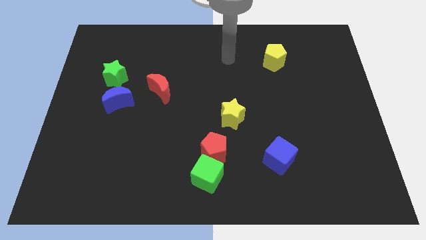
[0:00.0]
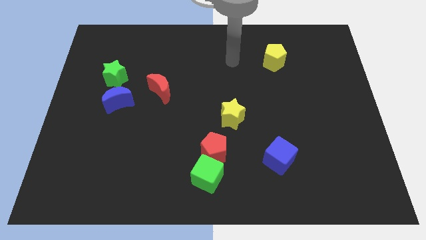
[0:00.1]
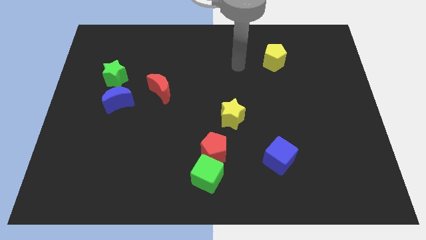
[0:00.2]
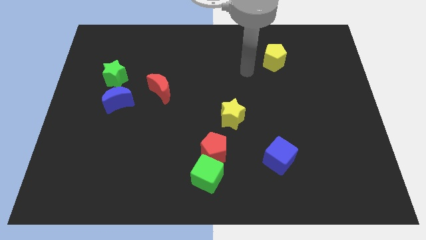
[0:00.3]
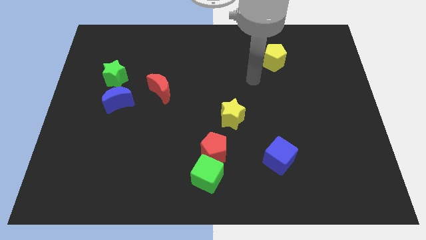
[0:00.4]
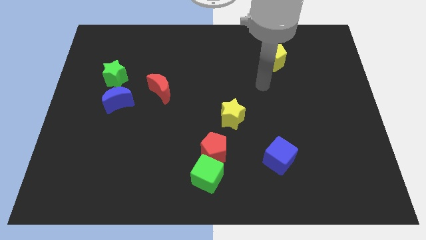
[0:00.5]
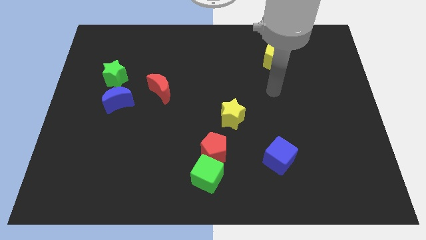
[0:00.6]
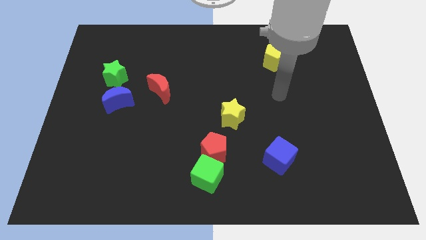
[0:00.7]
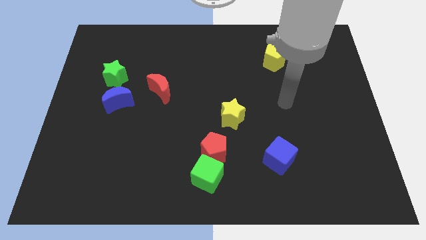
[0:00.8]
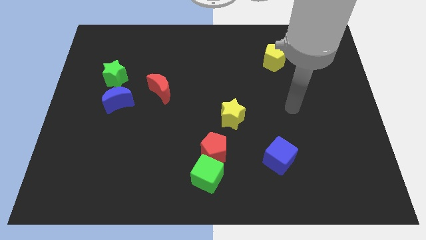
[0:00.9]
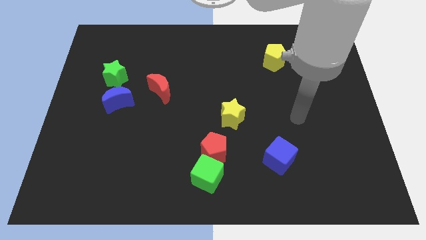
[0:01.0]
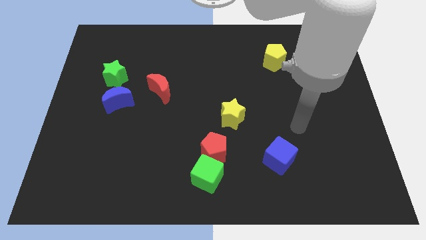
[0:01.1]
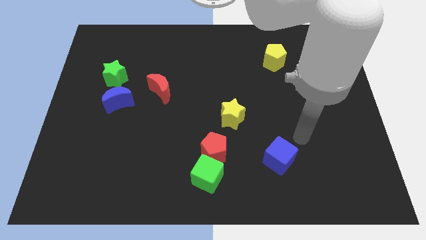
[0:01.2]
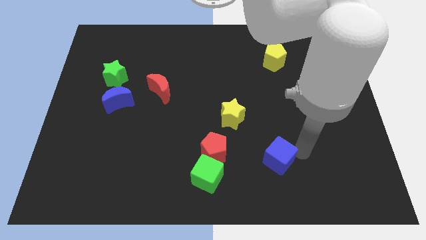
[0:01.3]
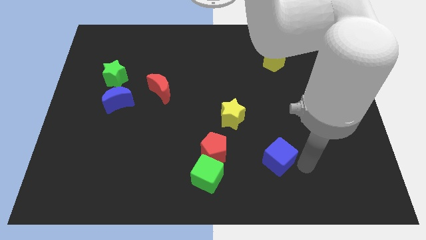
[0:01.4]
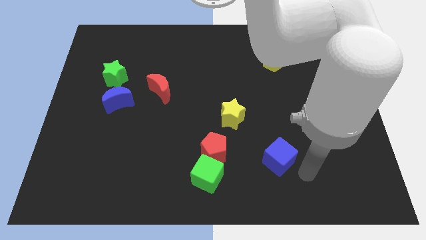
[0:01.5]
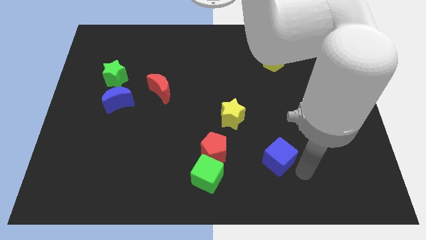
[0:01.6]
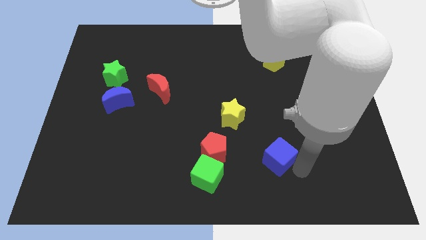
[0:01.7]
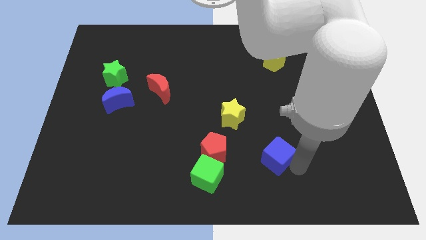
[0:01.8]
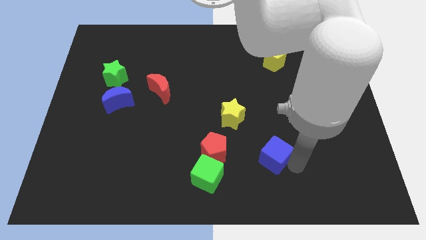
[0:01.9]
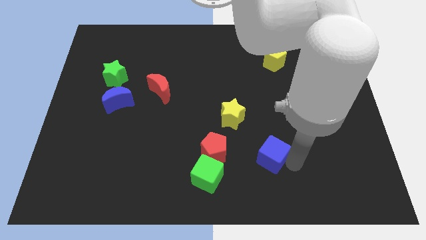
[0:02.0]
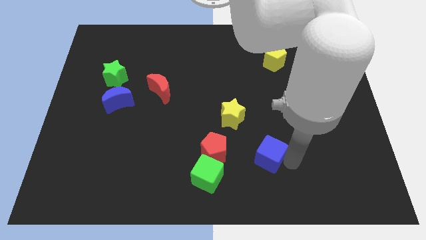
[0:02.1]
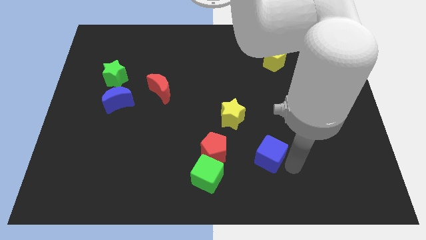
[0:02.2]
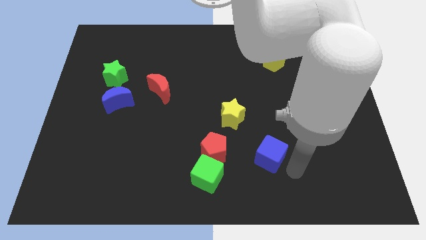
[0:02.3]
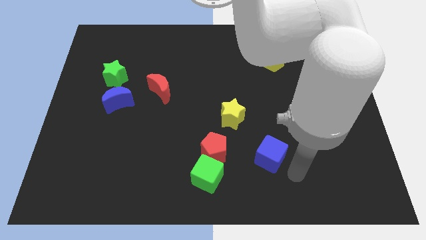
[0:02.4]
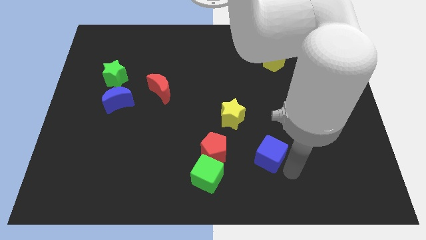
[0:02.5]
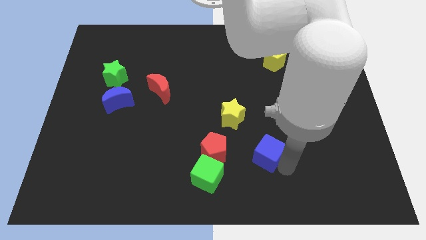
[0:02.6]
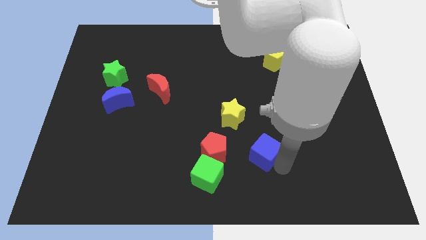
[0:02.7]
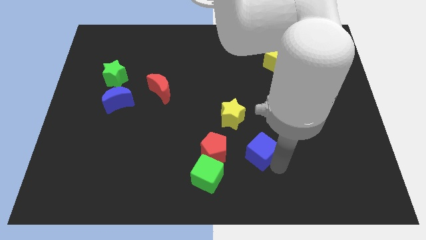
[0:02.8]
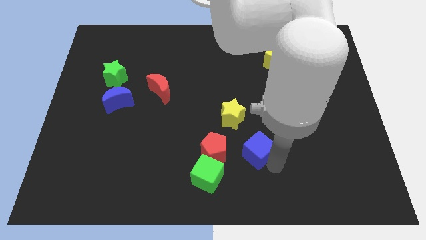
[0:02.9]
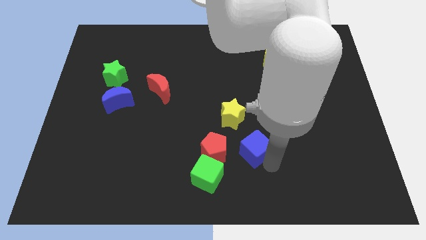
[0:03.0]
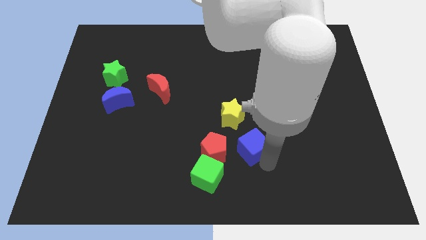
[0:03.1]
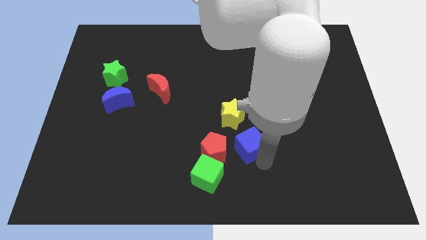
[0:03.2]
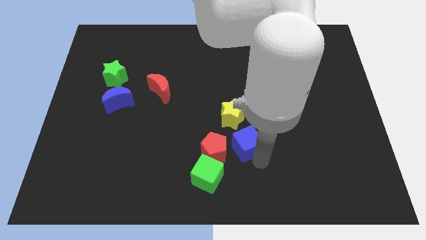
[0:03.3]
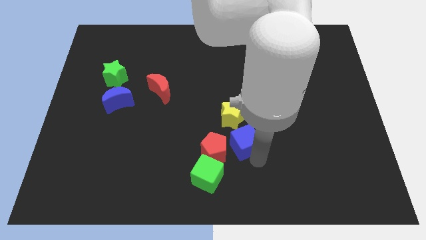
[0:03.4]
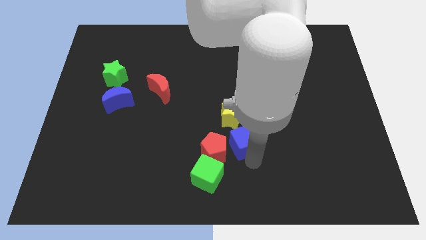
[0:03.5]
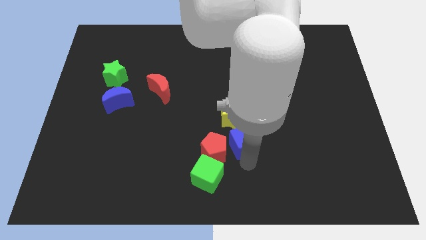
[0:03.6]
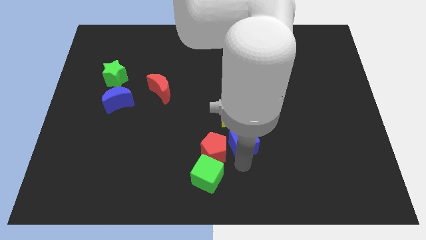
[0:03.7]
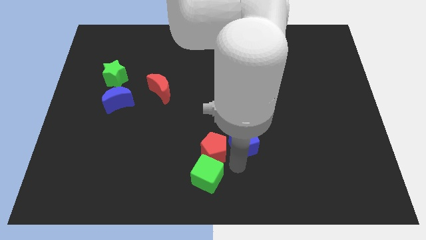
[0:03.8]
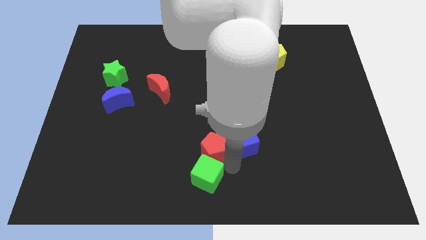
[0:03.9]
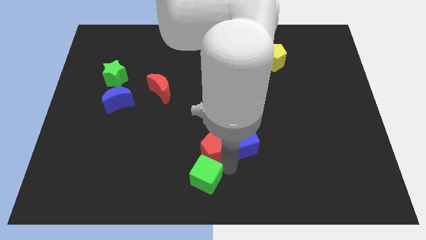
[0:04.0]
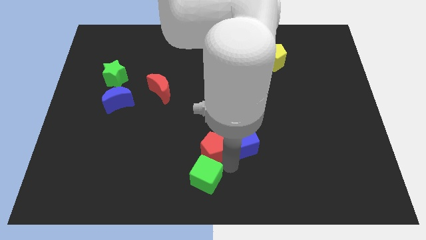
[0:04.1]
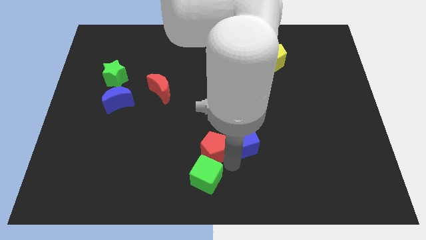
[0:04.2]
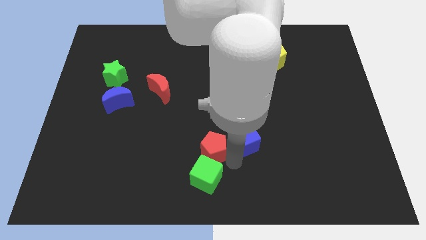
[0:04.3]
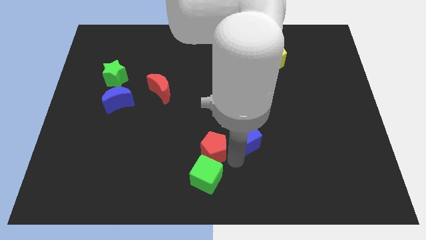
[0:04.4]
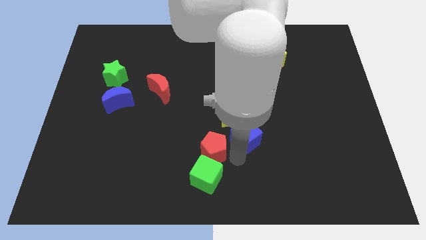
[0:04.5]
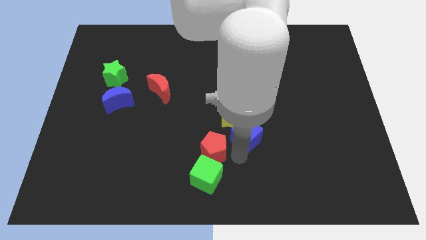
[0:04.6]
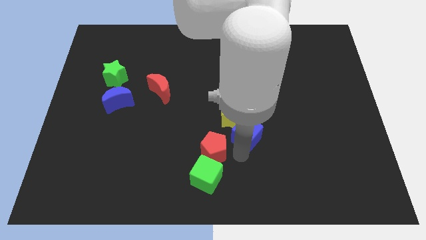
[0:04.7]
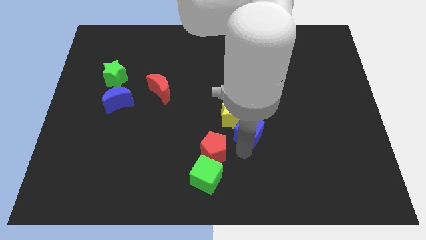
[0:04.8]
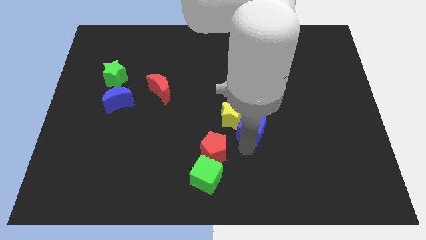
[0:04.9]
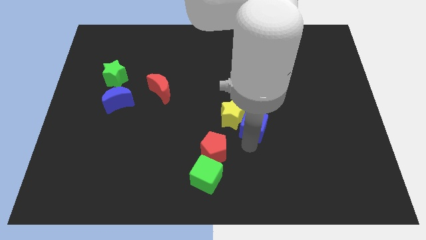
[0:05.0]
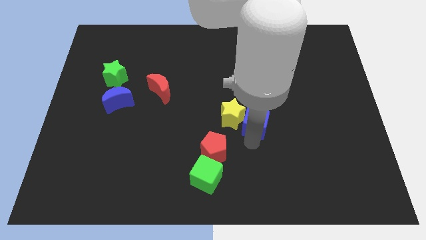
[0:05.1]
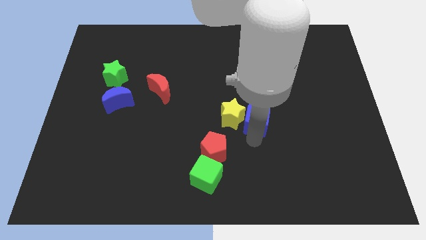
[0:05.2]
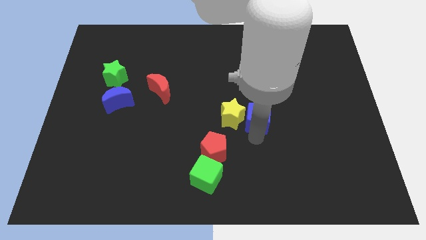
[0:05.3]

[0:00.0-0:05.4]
move the blue cube diagonally up and to the right of the yellow star

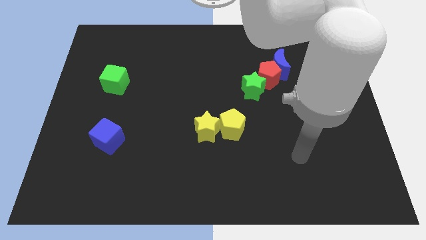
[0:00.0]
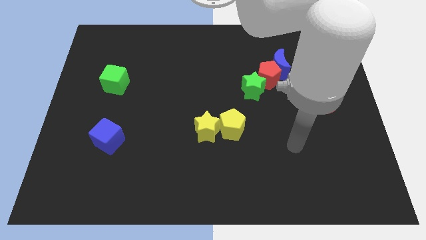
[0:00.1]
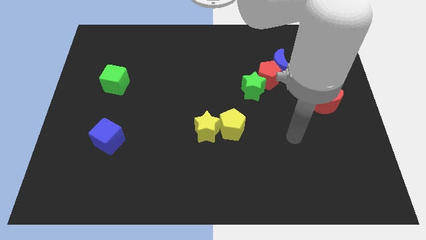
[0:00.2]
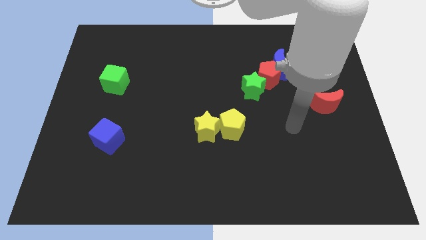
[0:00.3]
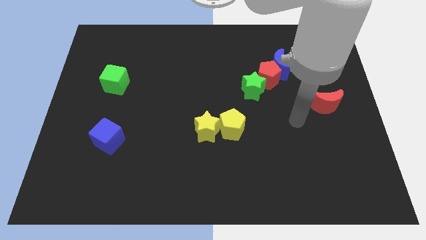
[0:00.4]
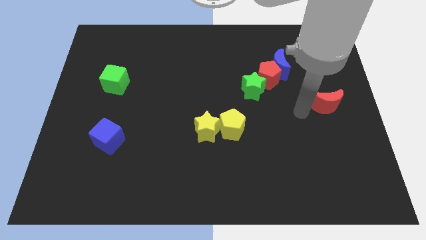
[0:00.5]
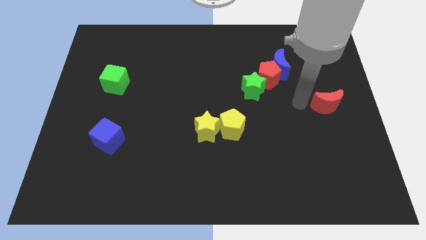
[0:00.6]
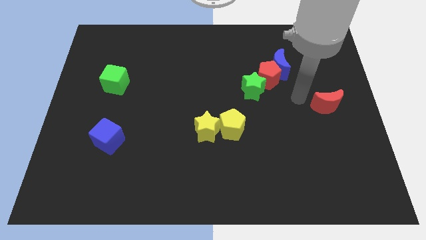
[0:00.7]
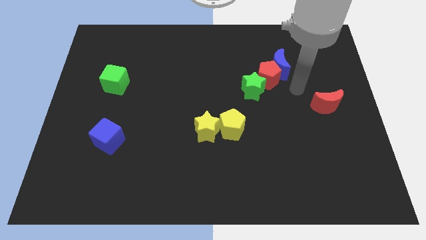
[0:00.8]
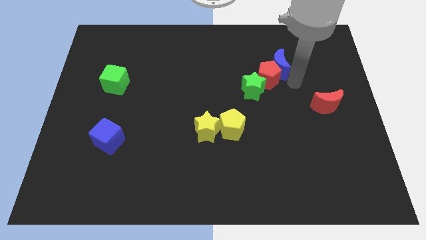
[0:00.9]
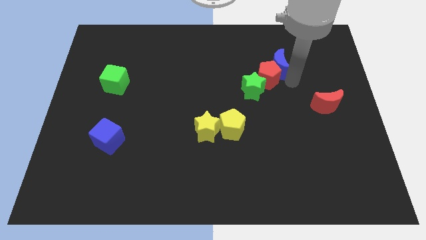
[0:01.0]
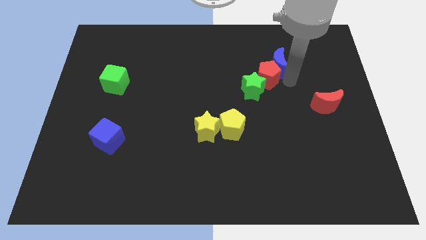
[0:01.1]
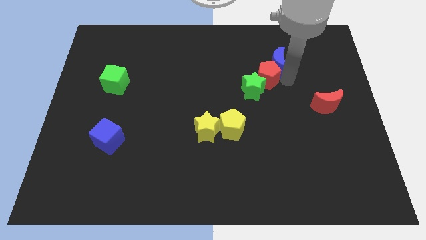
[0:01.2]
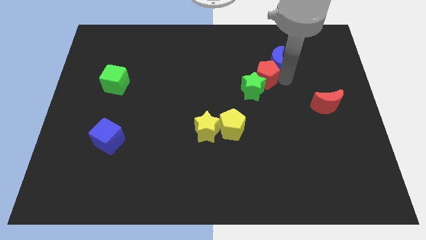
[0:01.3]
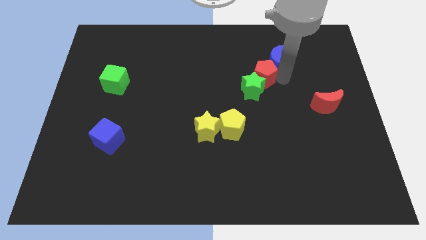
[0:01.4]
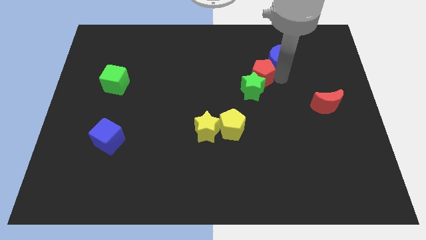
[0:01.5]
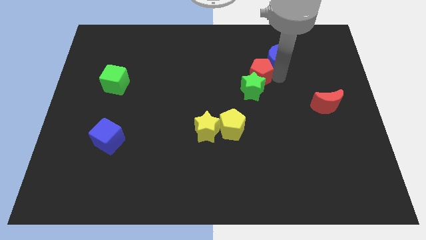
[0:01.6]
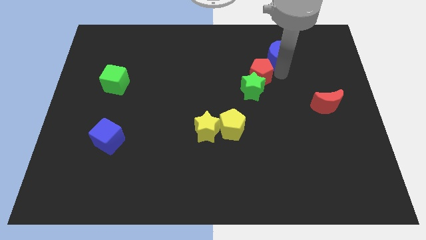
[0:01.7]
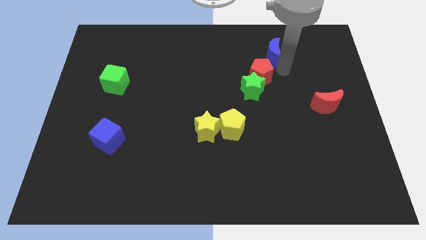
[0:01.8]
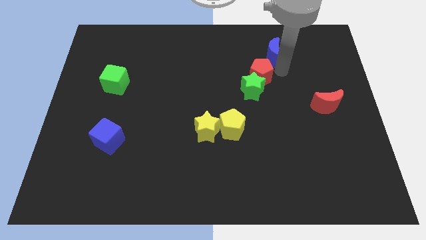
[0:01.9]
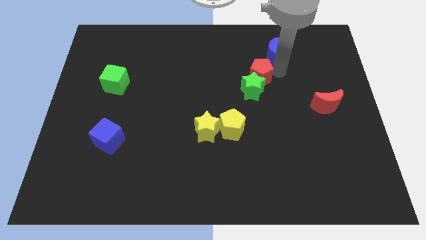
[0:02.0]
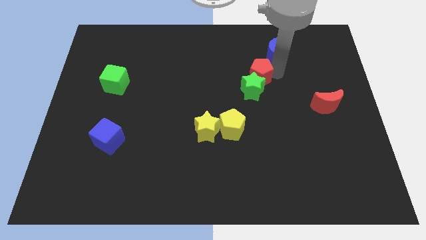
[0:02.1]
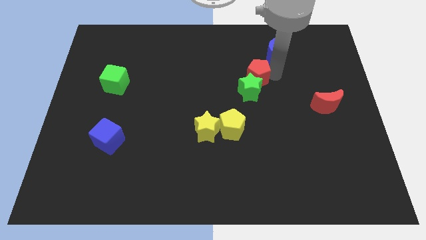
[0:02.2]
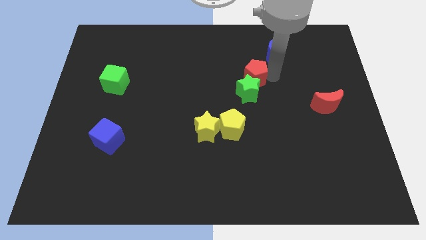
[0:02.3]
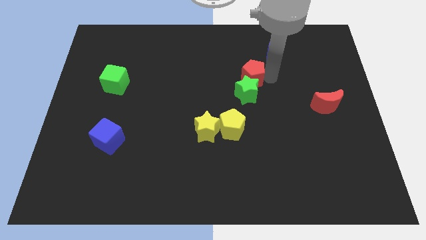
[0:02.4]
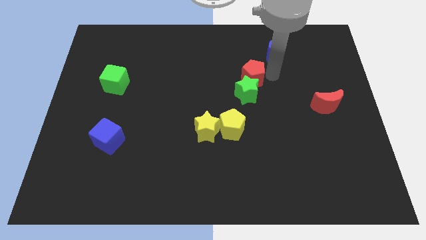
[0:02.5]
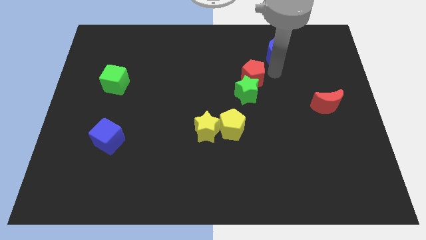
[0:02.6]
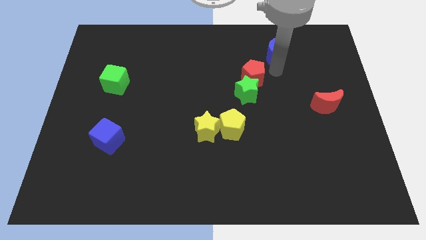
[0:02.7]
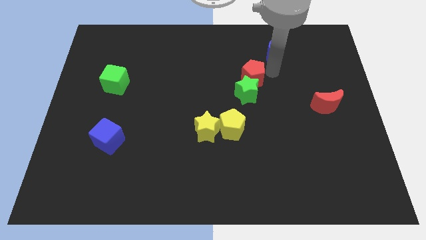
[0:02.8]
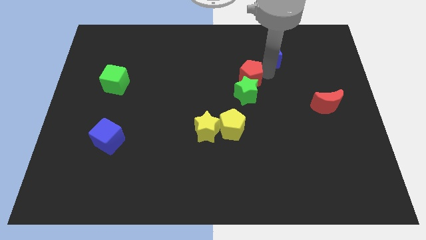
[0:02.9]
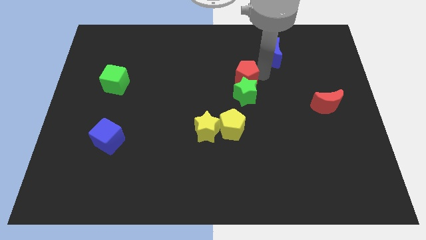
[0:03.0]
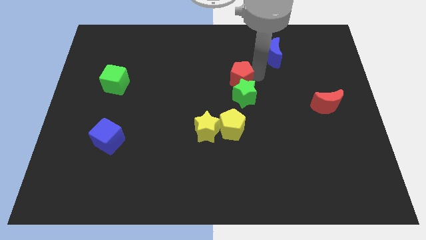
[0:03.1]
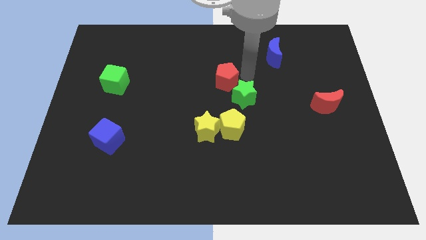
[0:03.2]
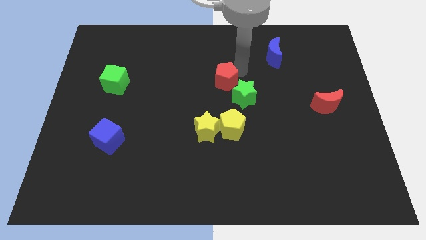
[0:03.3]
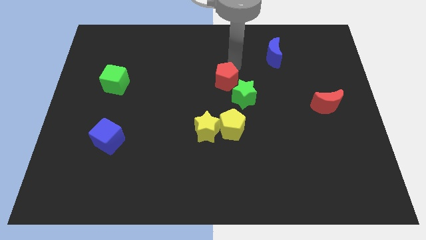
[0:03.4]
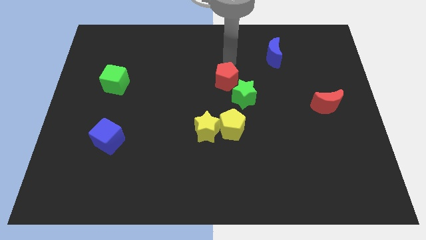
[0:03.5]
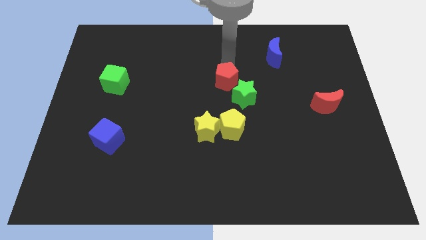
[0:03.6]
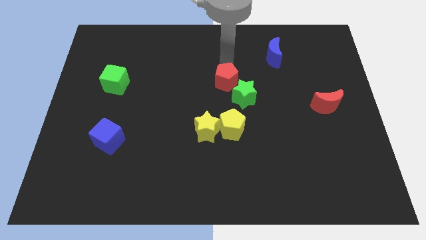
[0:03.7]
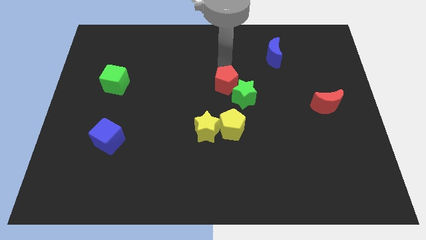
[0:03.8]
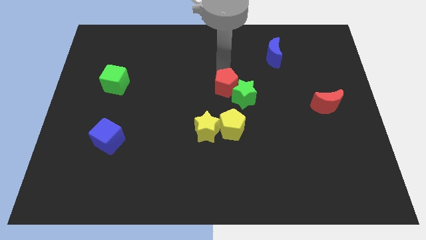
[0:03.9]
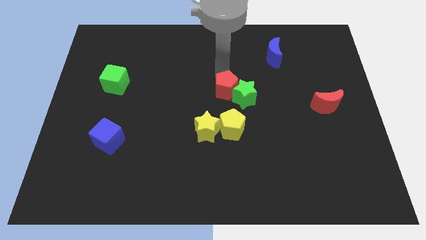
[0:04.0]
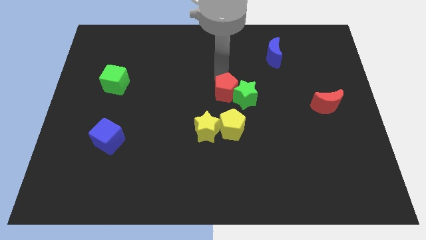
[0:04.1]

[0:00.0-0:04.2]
put the red pentagon to the bottom left of the green star
